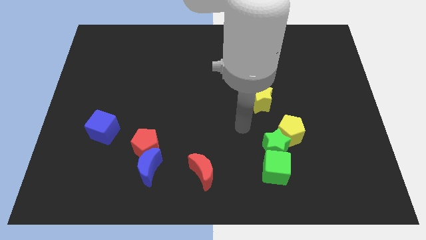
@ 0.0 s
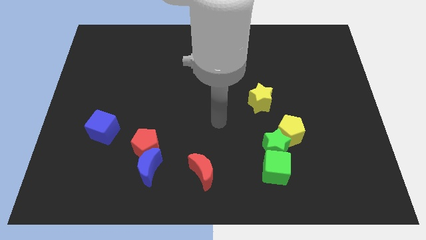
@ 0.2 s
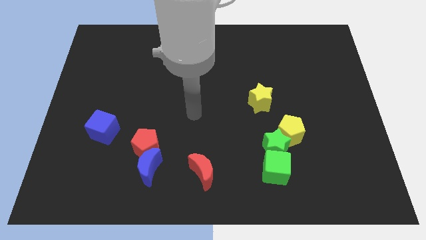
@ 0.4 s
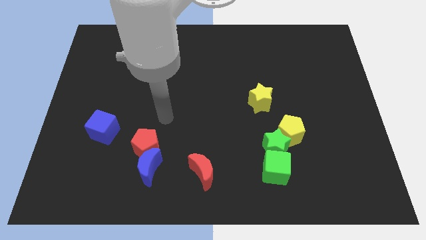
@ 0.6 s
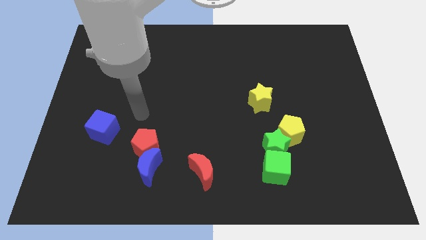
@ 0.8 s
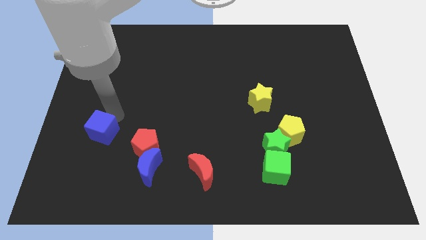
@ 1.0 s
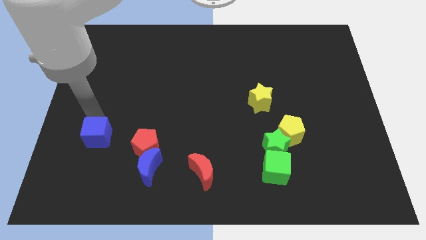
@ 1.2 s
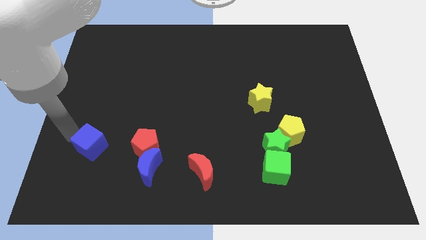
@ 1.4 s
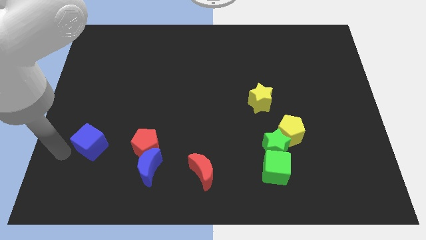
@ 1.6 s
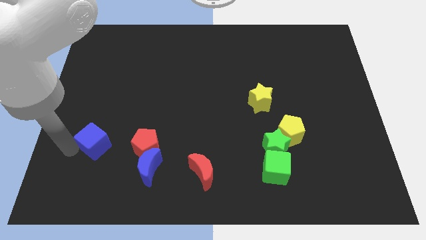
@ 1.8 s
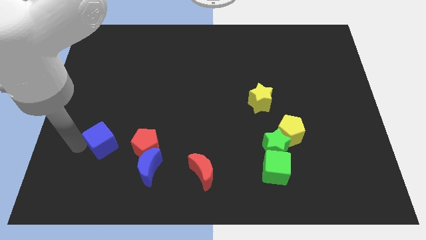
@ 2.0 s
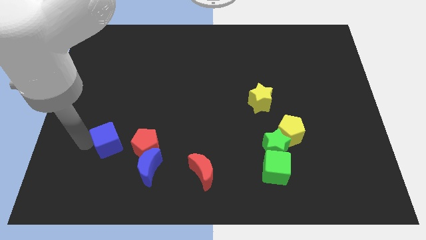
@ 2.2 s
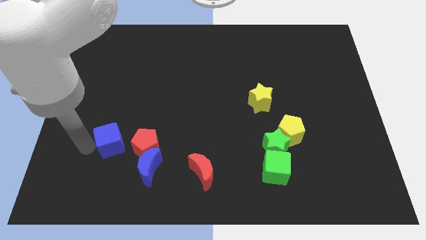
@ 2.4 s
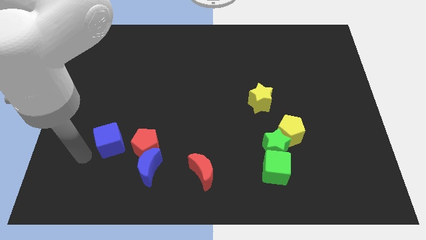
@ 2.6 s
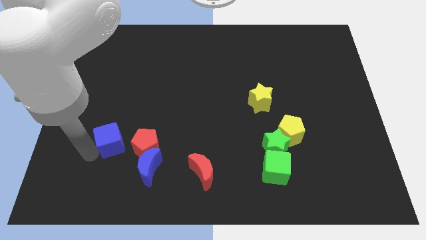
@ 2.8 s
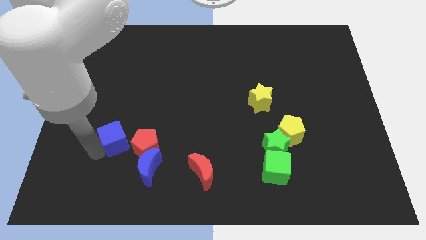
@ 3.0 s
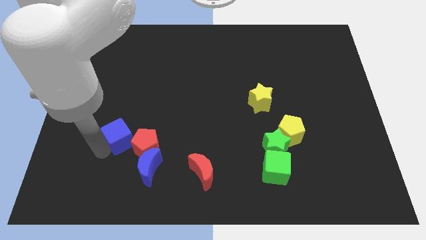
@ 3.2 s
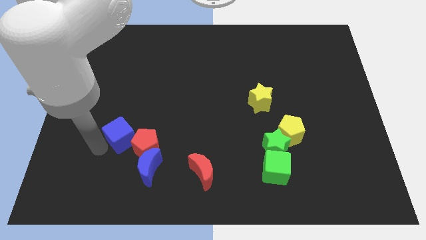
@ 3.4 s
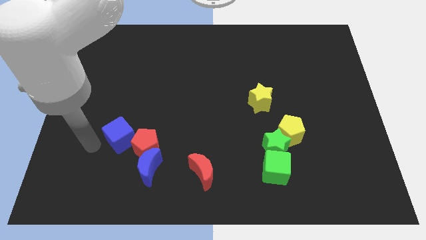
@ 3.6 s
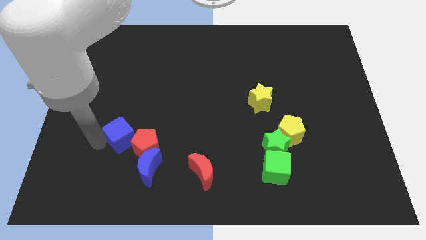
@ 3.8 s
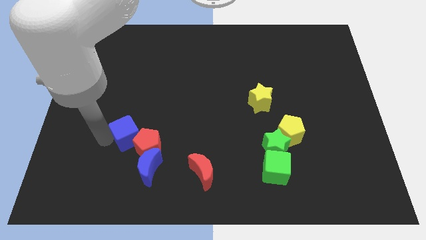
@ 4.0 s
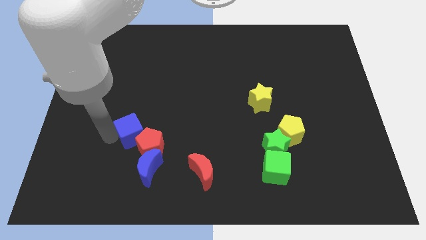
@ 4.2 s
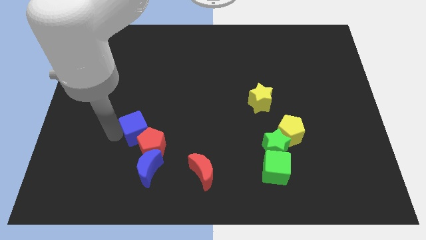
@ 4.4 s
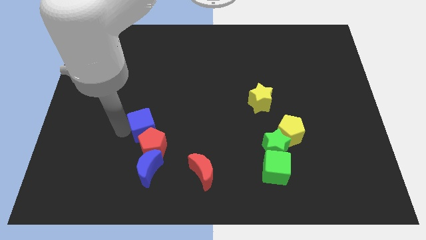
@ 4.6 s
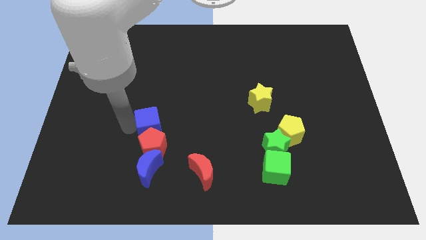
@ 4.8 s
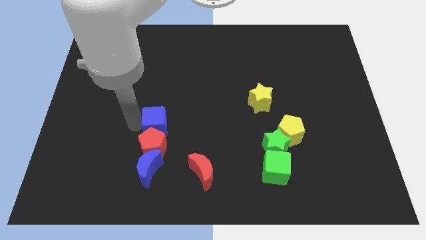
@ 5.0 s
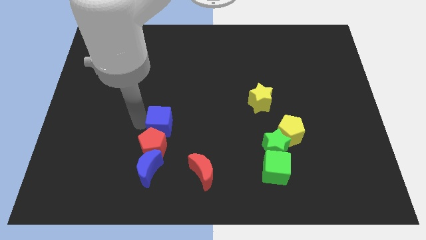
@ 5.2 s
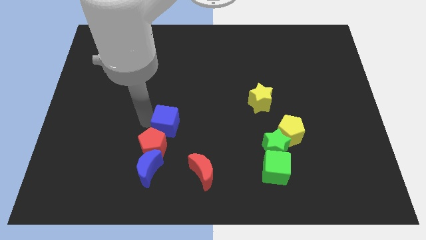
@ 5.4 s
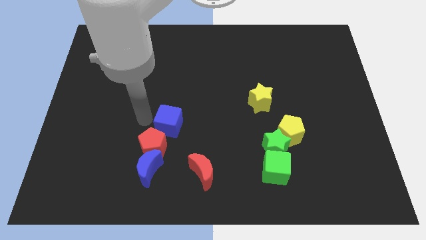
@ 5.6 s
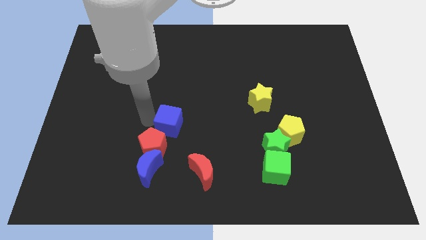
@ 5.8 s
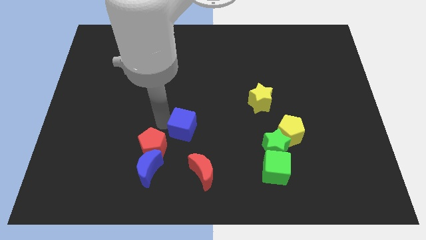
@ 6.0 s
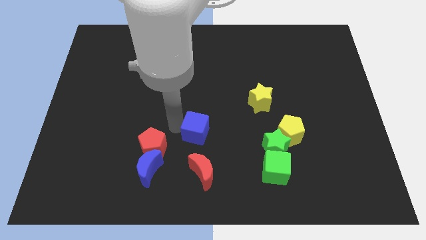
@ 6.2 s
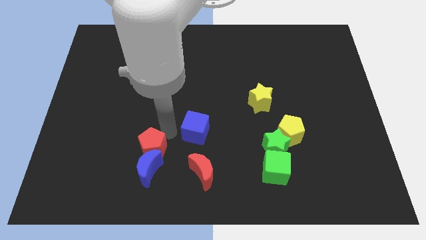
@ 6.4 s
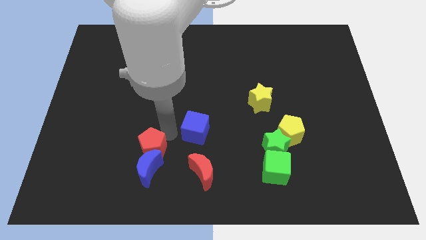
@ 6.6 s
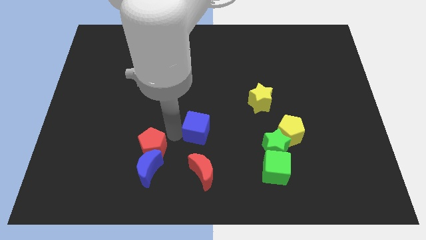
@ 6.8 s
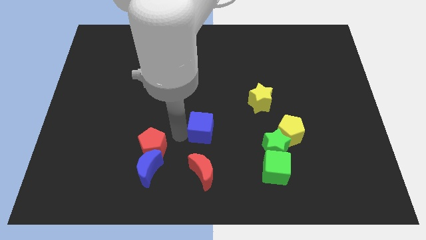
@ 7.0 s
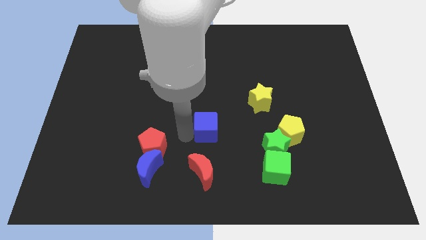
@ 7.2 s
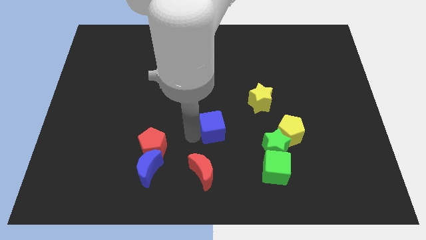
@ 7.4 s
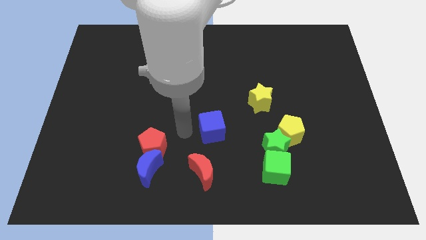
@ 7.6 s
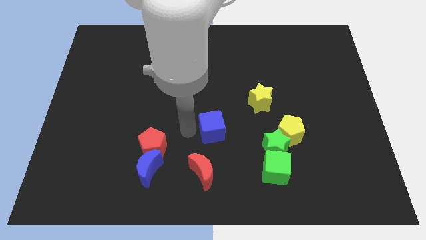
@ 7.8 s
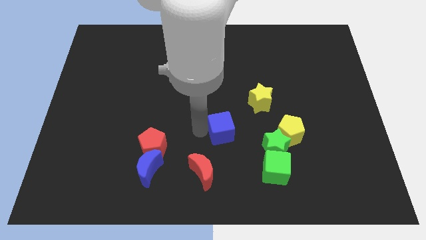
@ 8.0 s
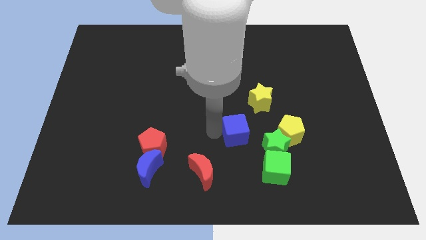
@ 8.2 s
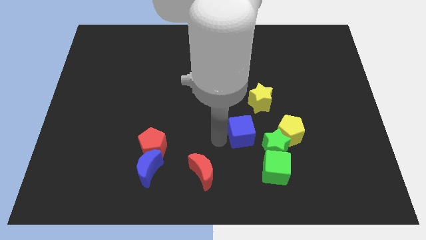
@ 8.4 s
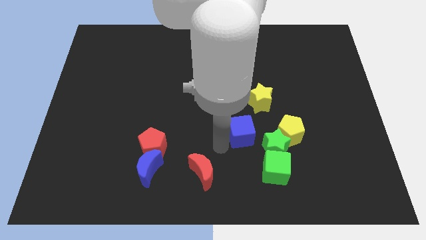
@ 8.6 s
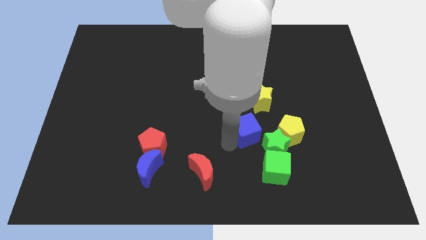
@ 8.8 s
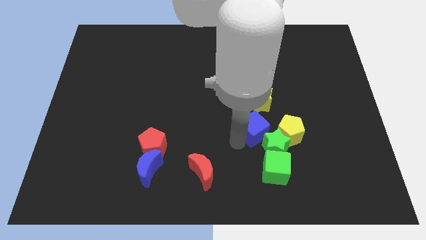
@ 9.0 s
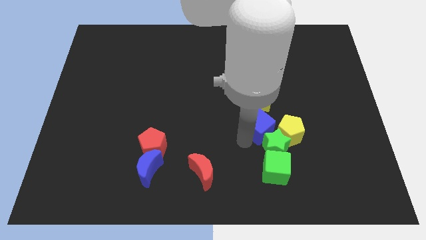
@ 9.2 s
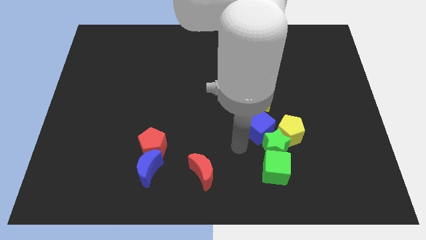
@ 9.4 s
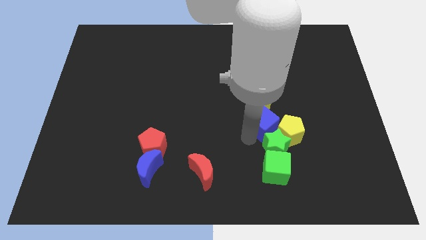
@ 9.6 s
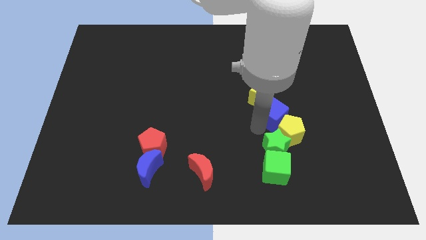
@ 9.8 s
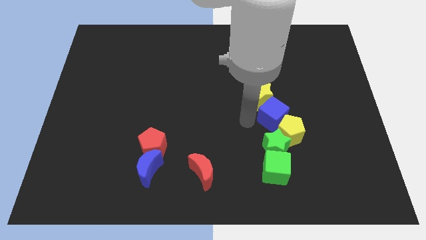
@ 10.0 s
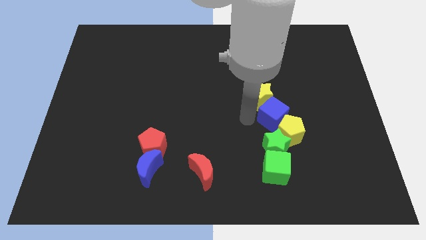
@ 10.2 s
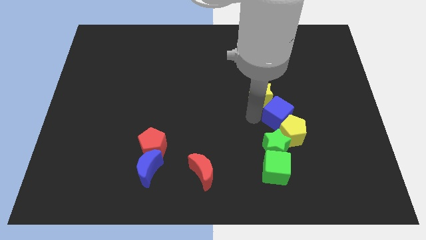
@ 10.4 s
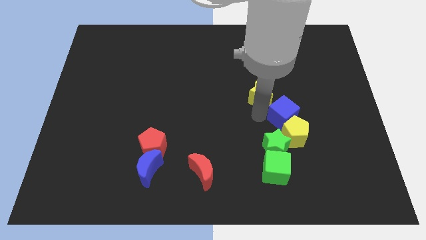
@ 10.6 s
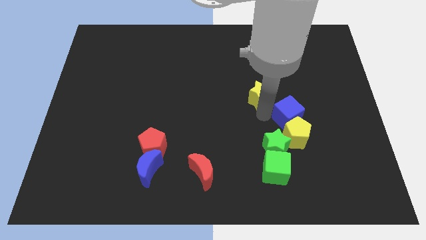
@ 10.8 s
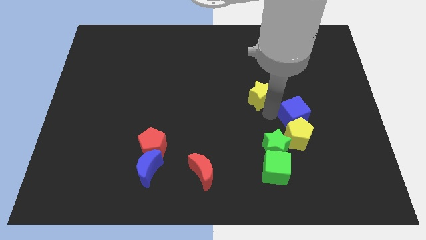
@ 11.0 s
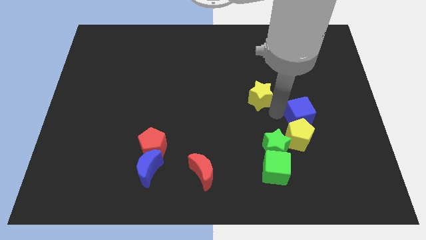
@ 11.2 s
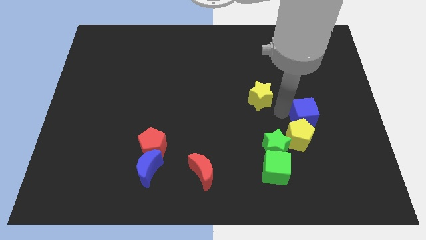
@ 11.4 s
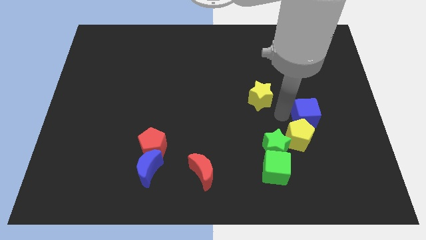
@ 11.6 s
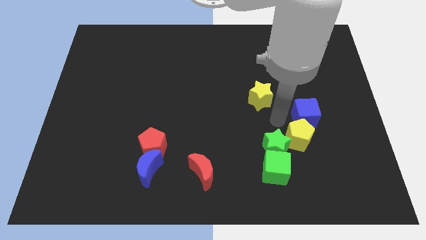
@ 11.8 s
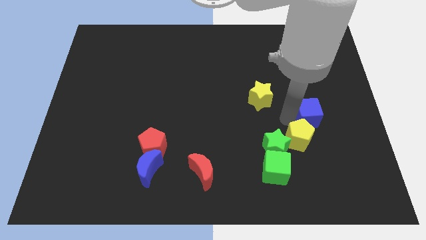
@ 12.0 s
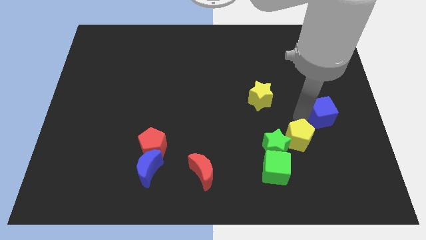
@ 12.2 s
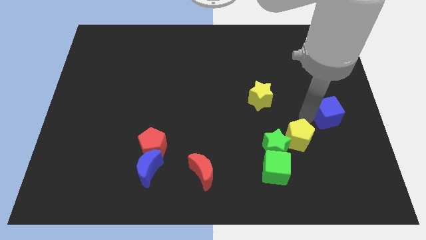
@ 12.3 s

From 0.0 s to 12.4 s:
push the blue cube to the right side
